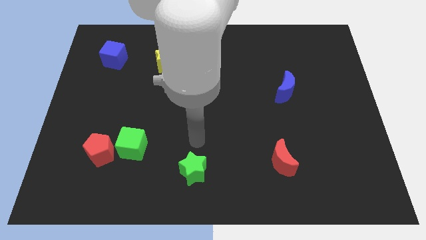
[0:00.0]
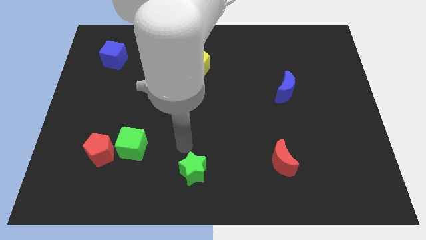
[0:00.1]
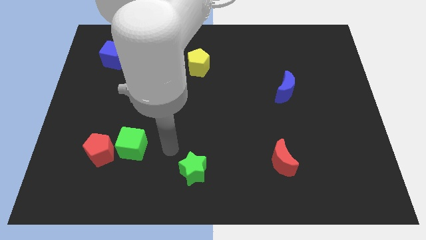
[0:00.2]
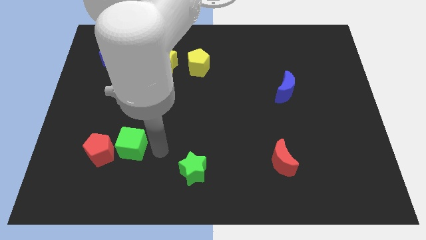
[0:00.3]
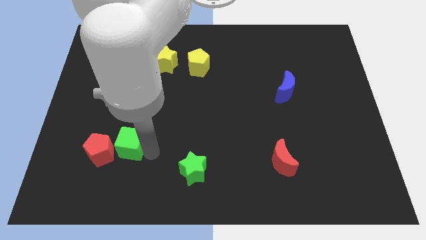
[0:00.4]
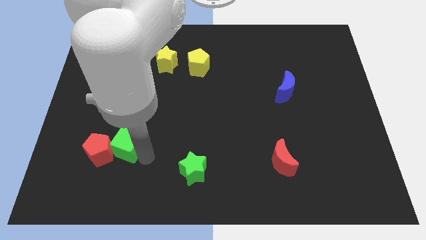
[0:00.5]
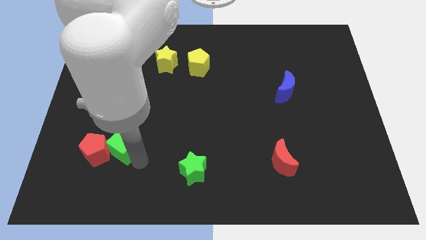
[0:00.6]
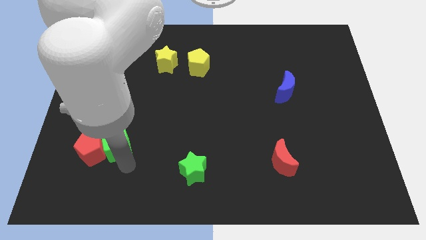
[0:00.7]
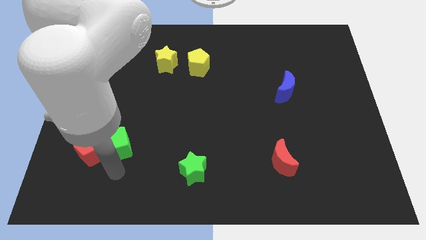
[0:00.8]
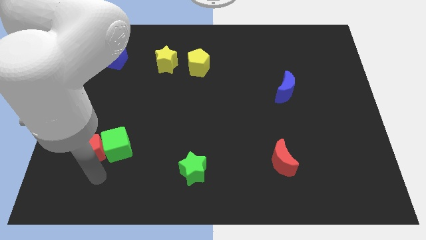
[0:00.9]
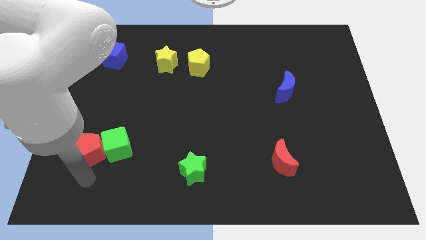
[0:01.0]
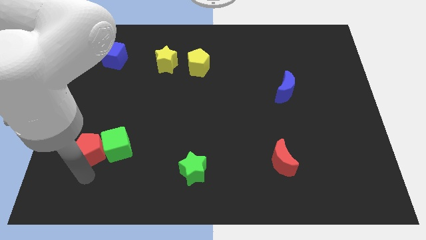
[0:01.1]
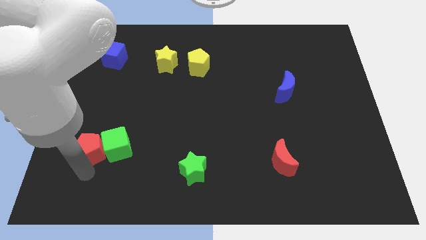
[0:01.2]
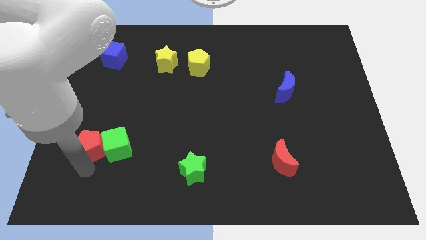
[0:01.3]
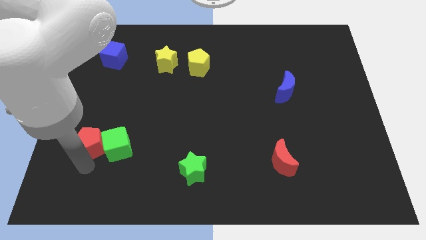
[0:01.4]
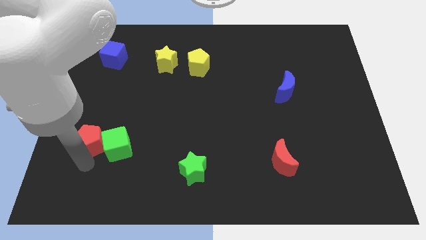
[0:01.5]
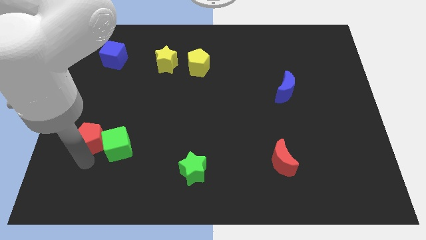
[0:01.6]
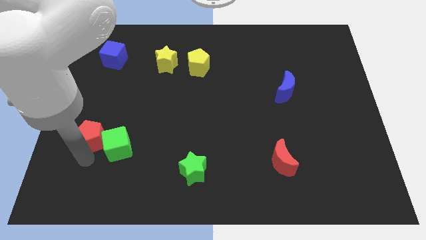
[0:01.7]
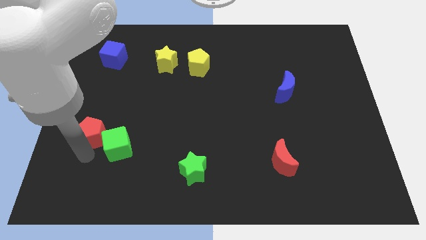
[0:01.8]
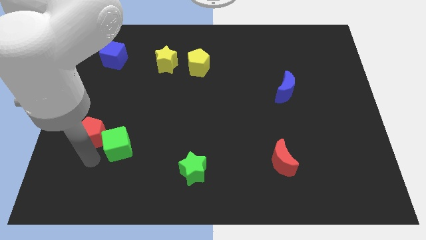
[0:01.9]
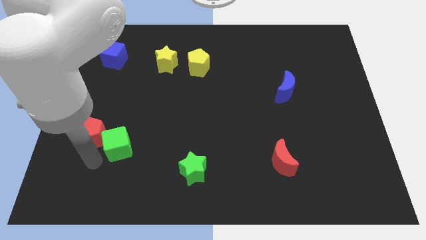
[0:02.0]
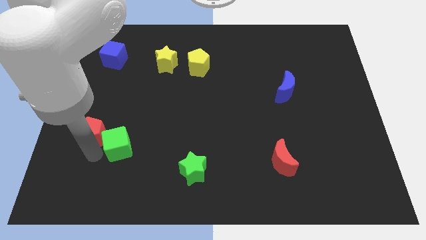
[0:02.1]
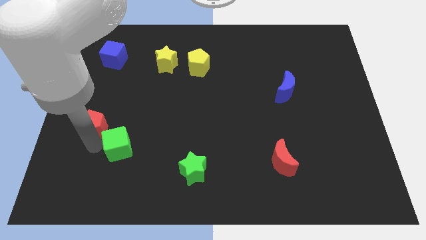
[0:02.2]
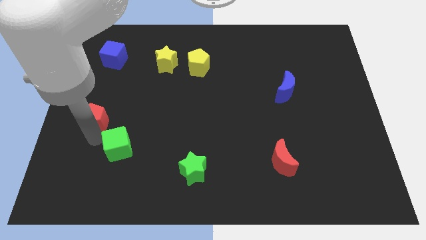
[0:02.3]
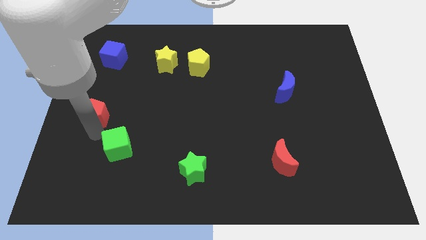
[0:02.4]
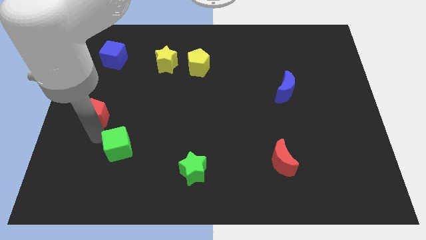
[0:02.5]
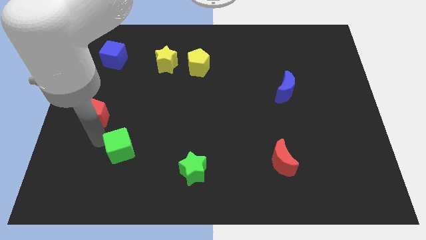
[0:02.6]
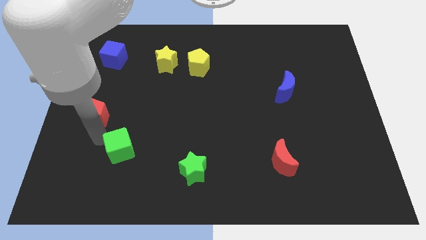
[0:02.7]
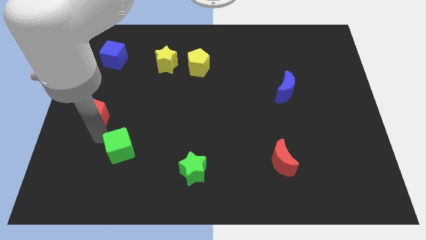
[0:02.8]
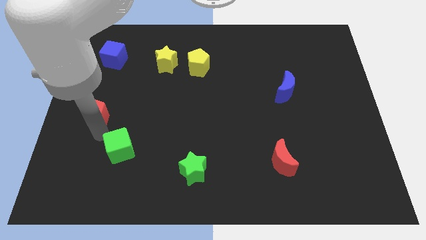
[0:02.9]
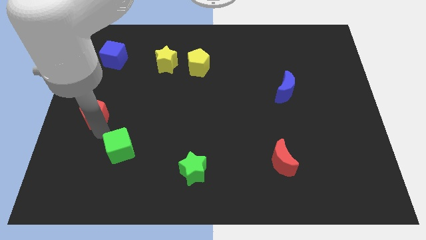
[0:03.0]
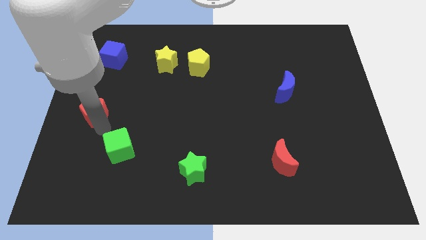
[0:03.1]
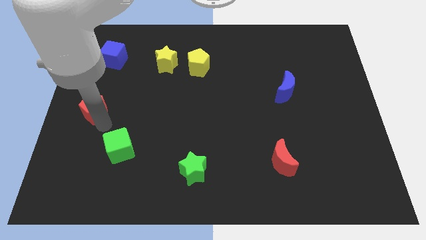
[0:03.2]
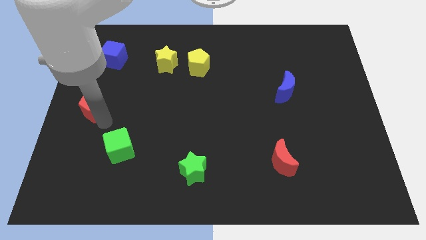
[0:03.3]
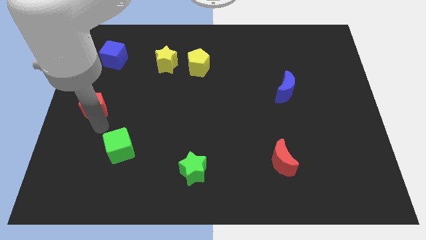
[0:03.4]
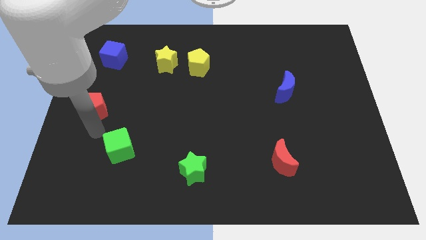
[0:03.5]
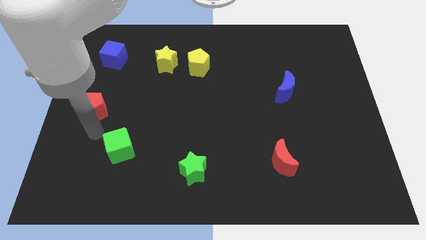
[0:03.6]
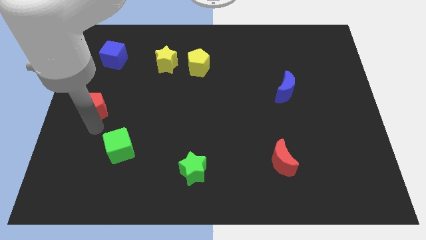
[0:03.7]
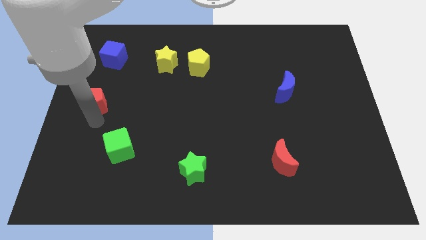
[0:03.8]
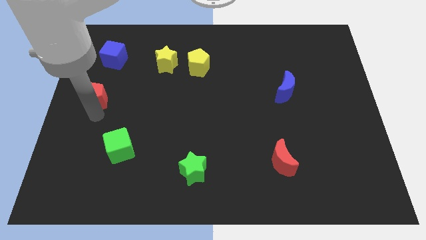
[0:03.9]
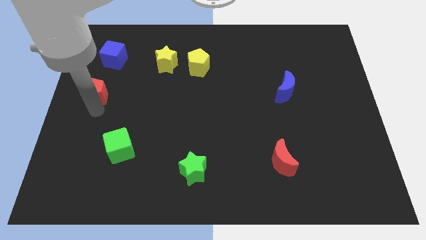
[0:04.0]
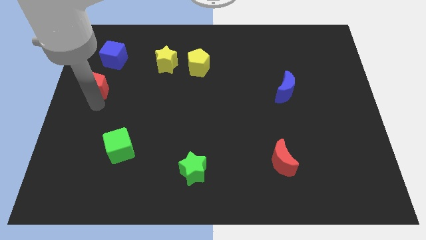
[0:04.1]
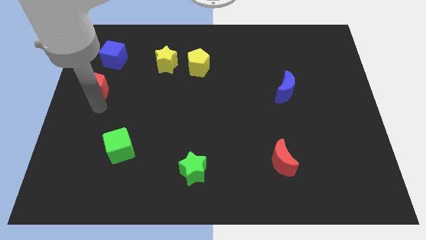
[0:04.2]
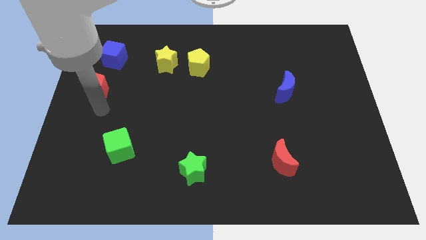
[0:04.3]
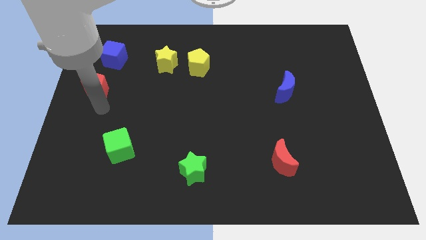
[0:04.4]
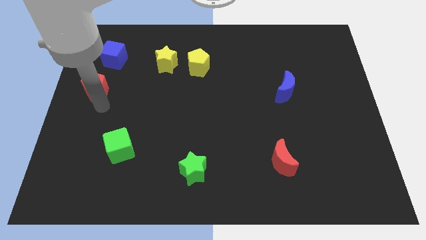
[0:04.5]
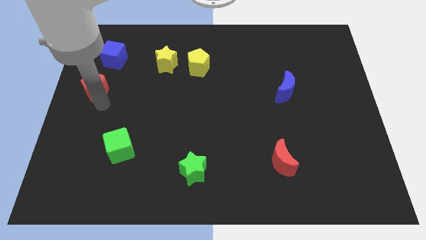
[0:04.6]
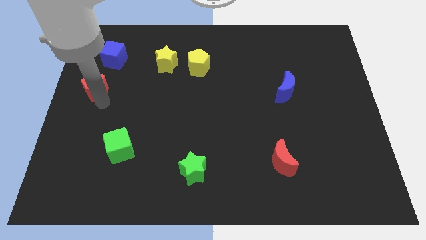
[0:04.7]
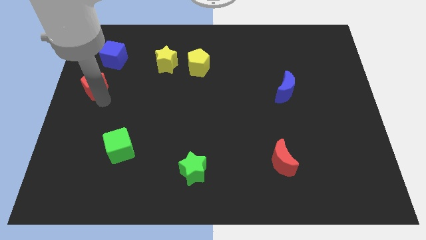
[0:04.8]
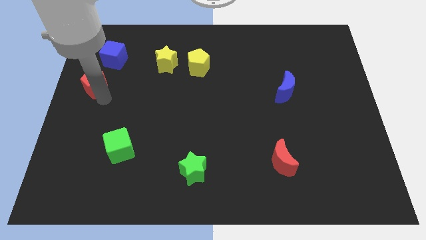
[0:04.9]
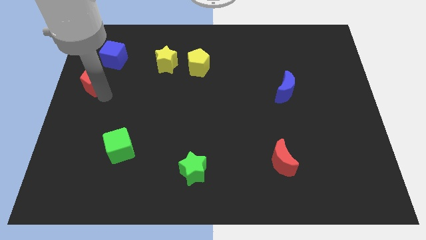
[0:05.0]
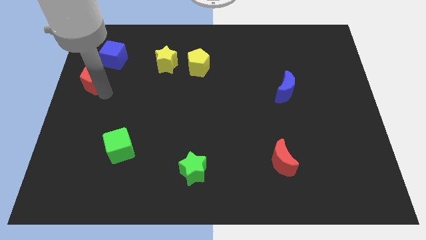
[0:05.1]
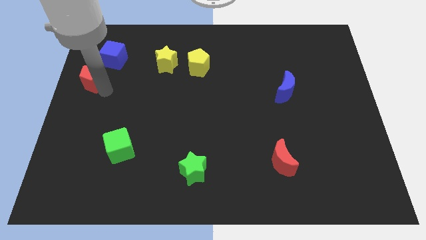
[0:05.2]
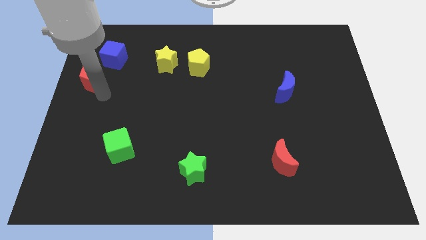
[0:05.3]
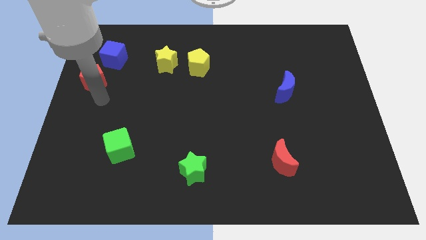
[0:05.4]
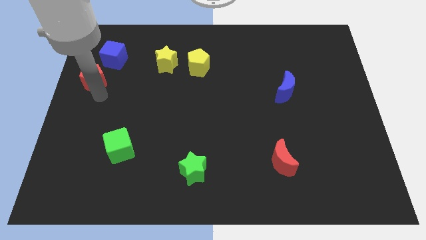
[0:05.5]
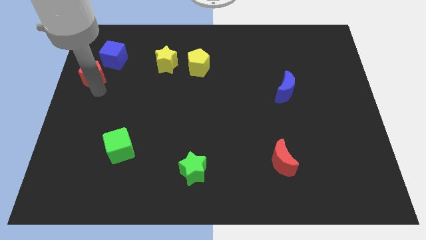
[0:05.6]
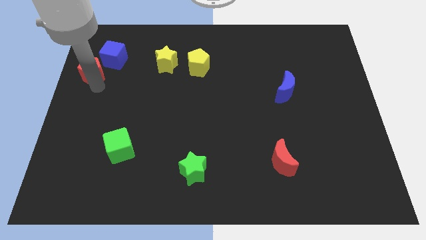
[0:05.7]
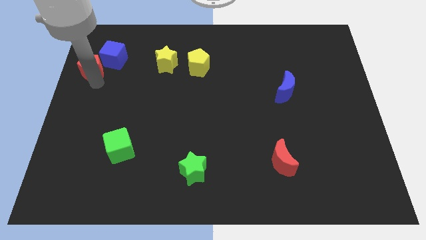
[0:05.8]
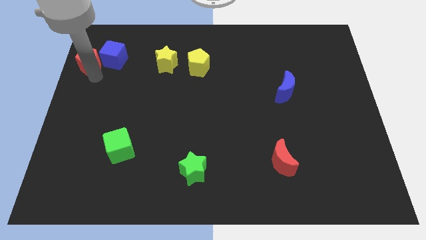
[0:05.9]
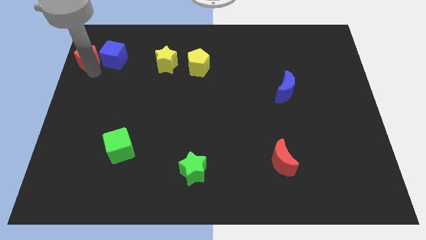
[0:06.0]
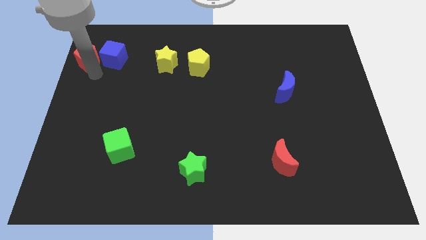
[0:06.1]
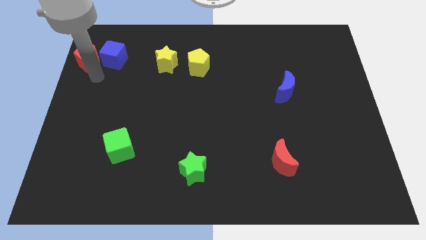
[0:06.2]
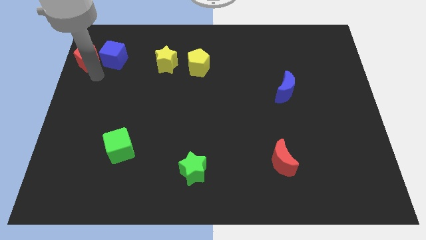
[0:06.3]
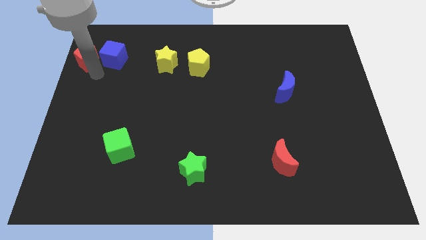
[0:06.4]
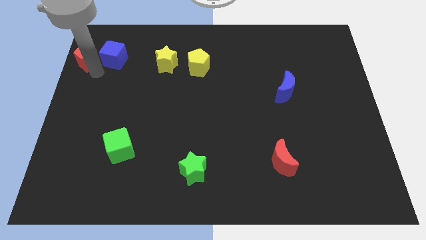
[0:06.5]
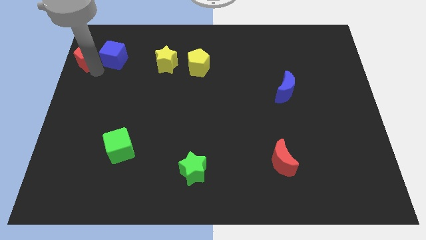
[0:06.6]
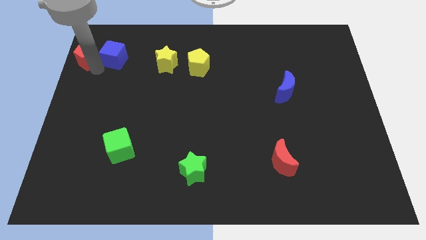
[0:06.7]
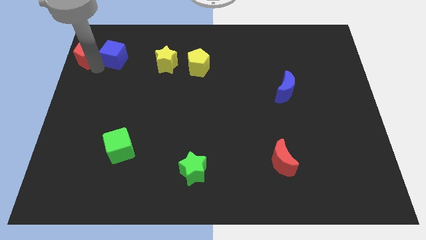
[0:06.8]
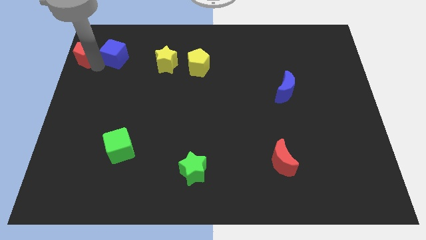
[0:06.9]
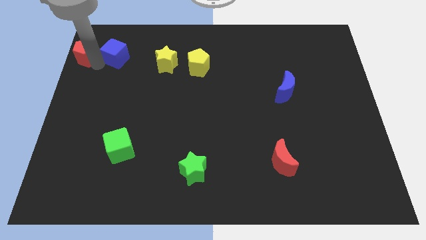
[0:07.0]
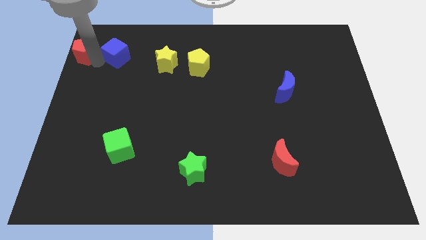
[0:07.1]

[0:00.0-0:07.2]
move the red pentagon to the top left corner
